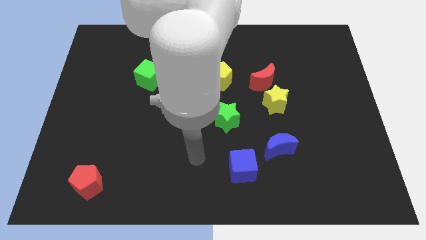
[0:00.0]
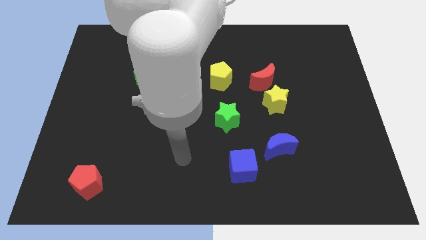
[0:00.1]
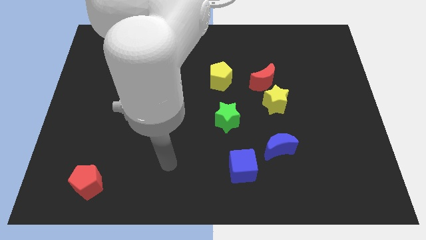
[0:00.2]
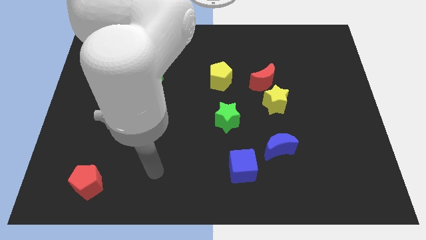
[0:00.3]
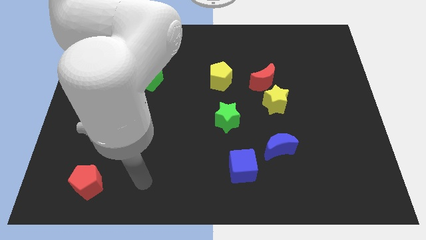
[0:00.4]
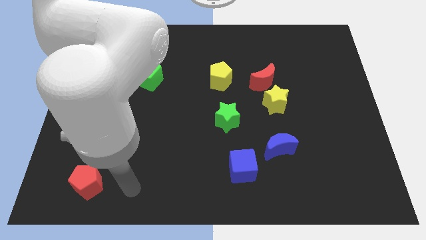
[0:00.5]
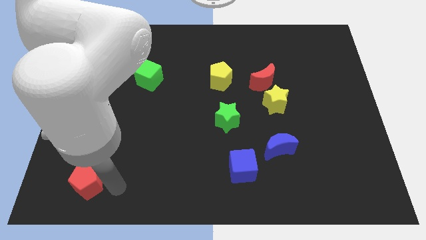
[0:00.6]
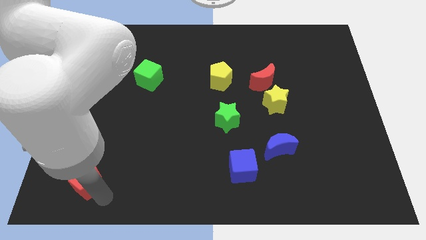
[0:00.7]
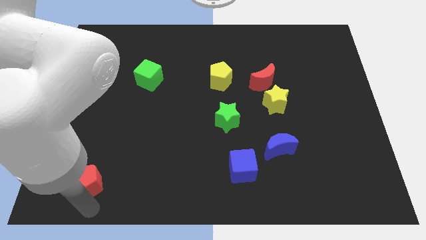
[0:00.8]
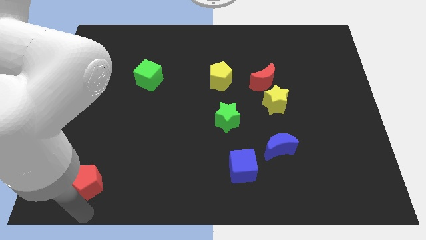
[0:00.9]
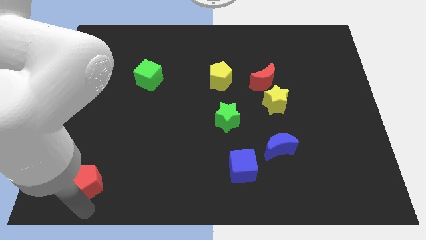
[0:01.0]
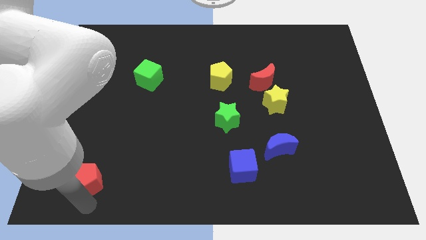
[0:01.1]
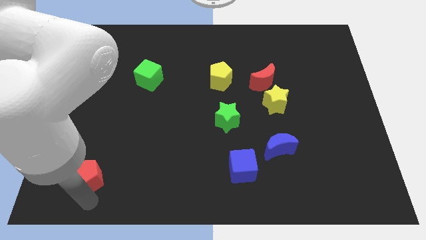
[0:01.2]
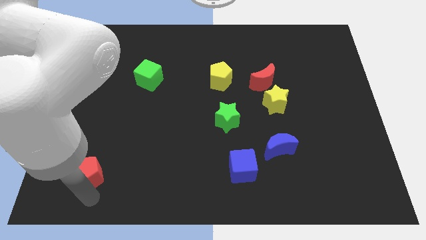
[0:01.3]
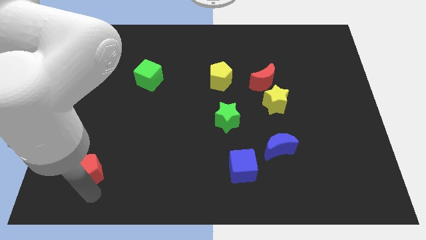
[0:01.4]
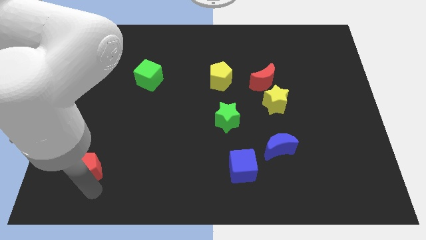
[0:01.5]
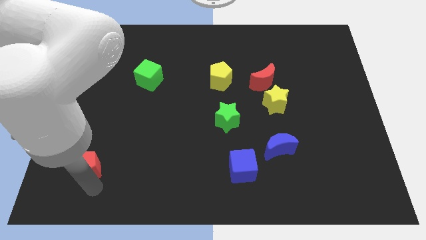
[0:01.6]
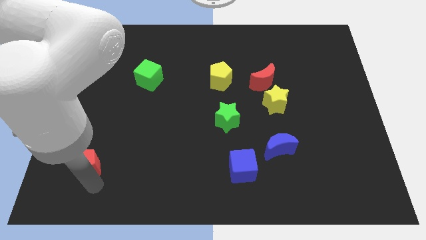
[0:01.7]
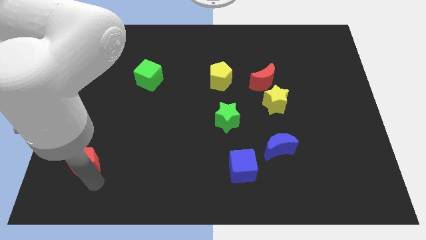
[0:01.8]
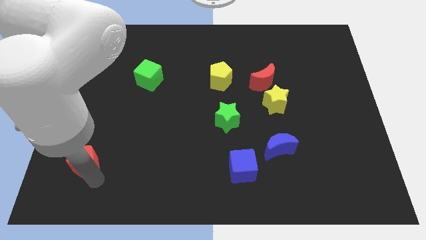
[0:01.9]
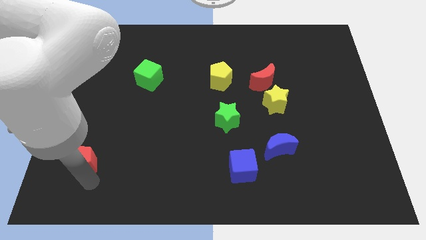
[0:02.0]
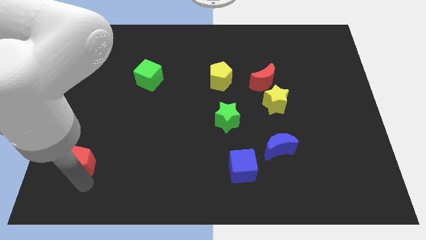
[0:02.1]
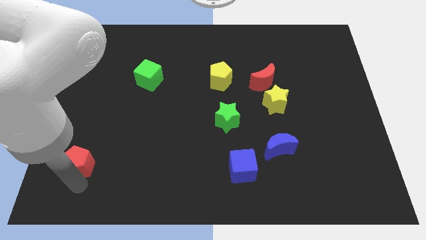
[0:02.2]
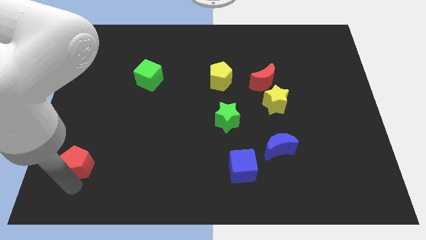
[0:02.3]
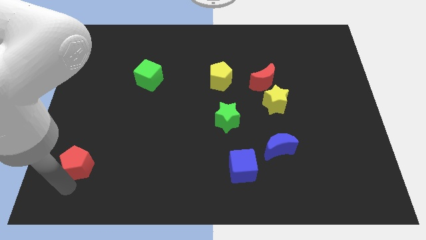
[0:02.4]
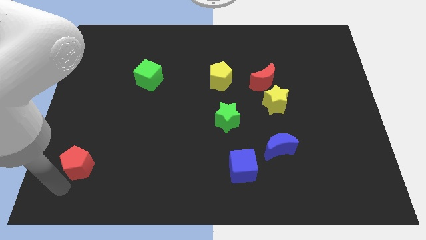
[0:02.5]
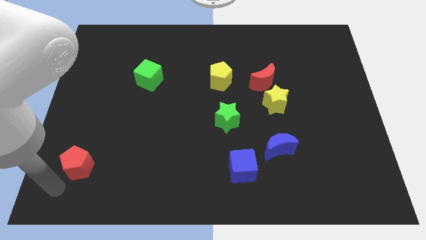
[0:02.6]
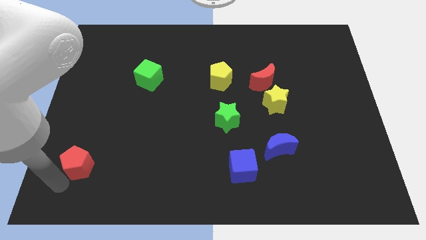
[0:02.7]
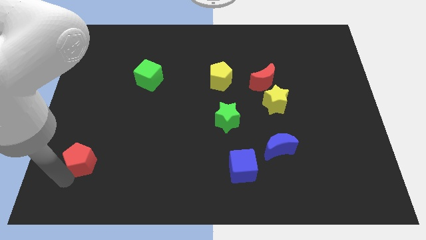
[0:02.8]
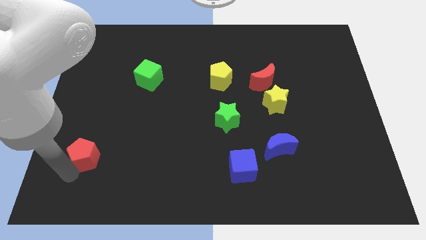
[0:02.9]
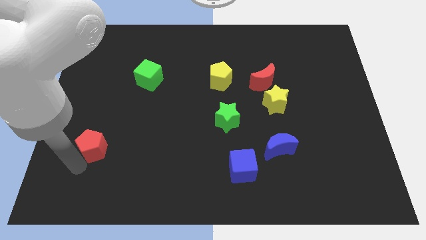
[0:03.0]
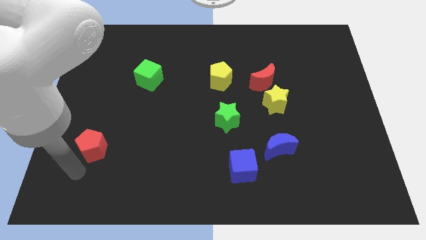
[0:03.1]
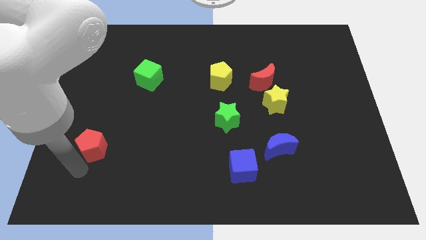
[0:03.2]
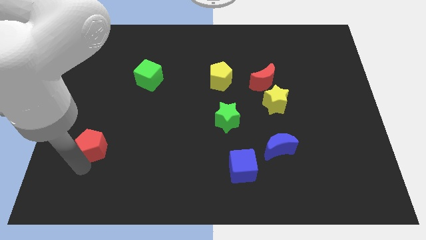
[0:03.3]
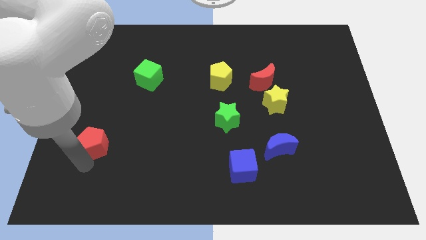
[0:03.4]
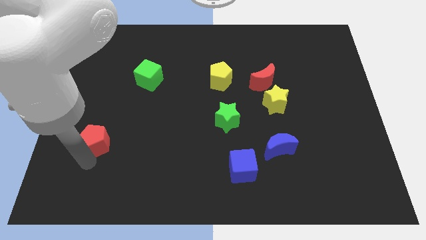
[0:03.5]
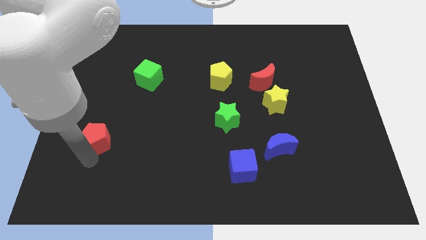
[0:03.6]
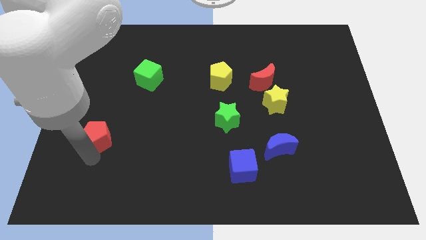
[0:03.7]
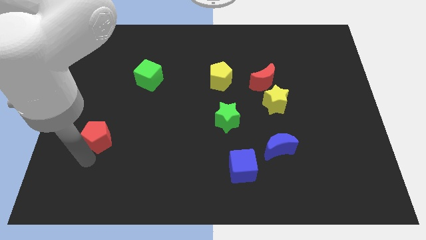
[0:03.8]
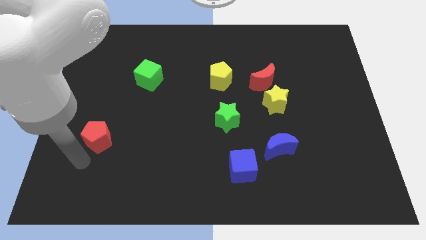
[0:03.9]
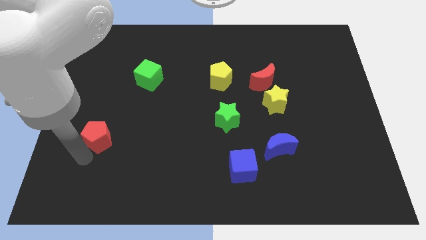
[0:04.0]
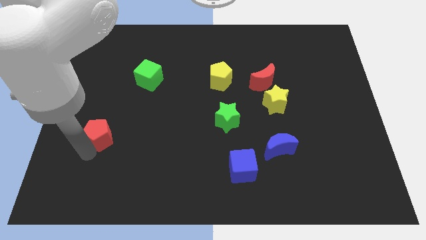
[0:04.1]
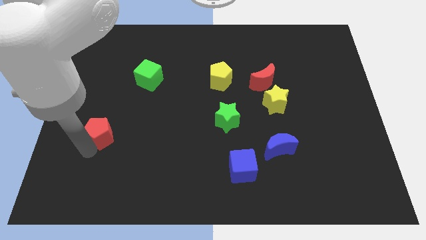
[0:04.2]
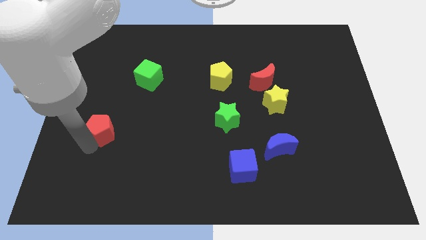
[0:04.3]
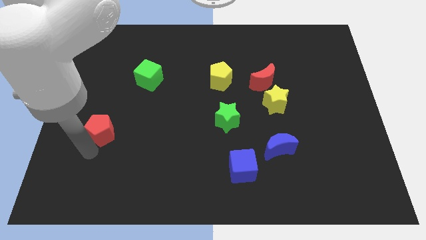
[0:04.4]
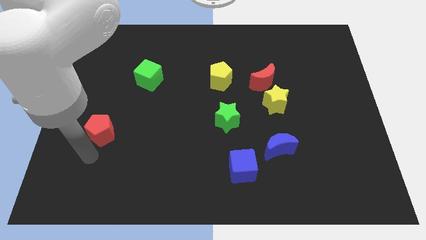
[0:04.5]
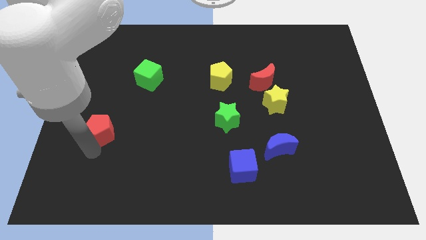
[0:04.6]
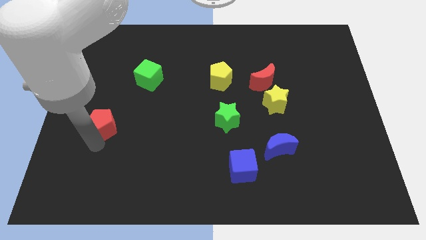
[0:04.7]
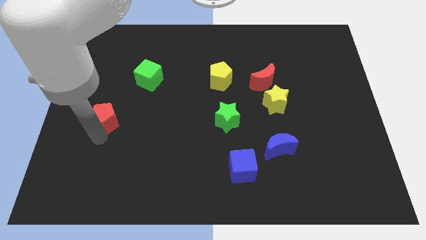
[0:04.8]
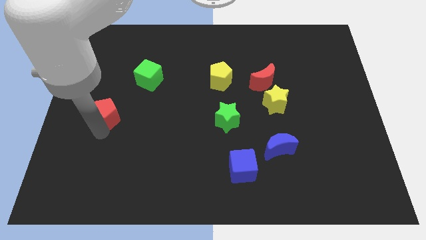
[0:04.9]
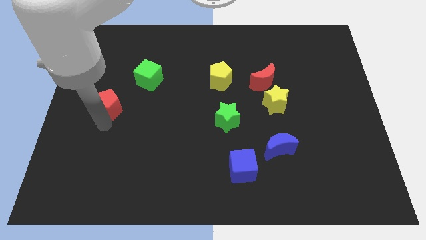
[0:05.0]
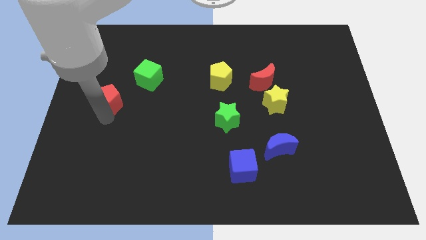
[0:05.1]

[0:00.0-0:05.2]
move the red pentagon up

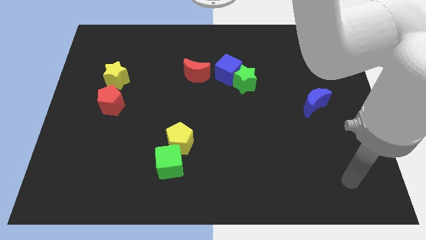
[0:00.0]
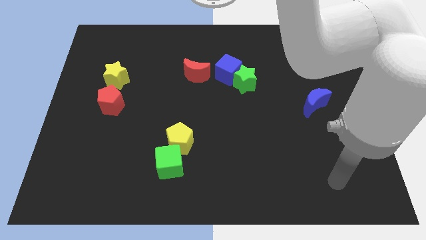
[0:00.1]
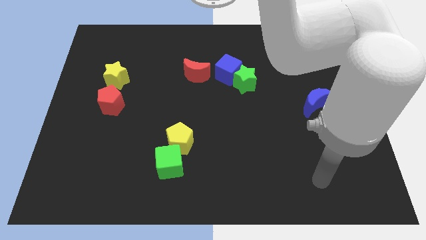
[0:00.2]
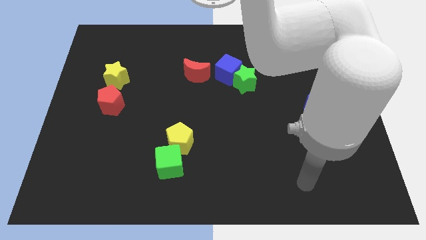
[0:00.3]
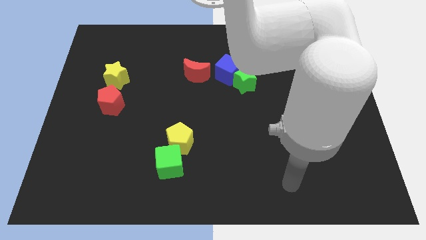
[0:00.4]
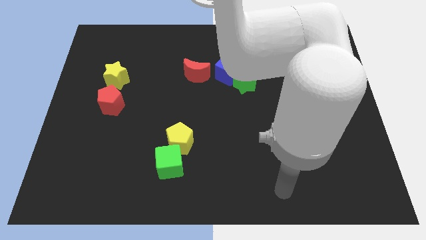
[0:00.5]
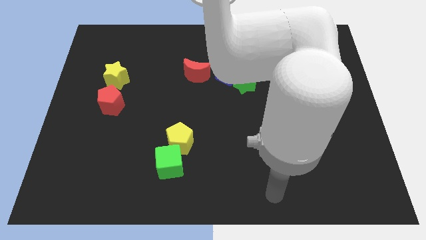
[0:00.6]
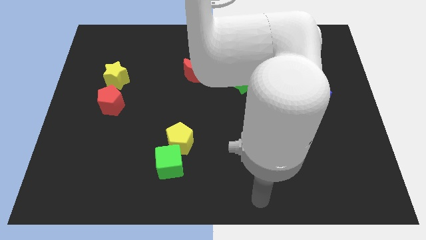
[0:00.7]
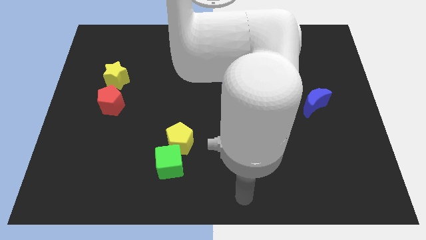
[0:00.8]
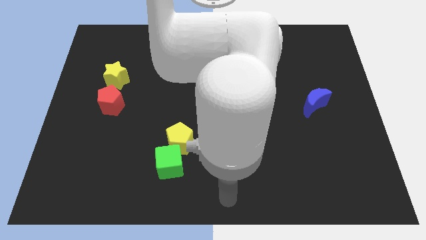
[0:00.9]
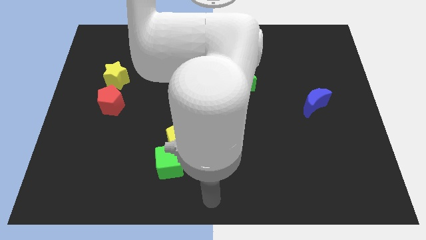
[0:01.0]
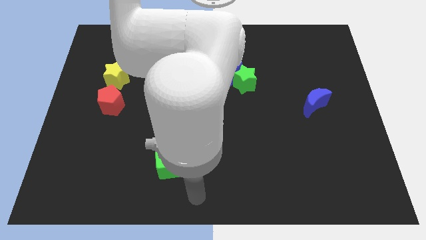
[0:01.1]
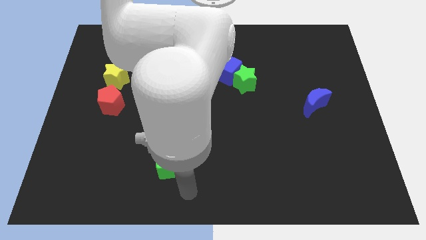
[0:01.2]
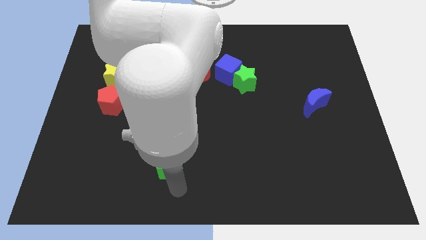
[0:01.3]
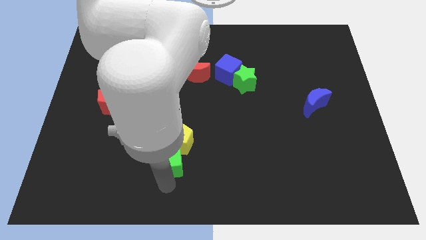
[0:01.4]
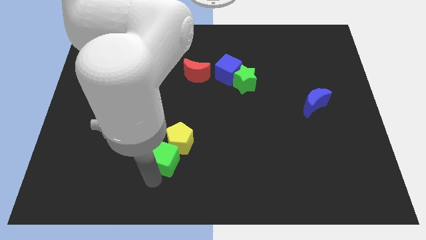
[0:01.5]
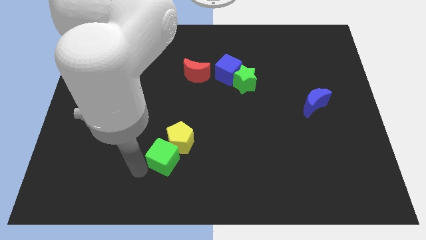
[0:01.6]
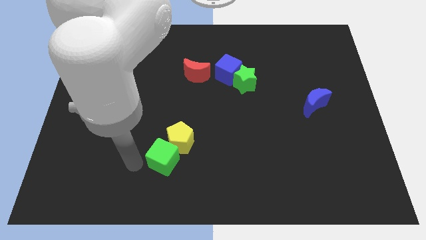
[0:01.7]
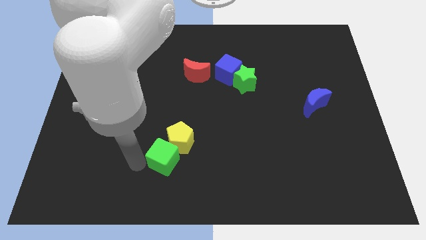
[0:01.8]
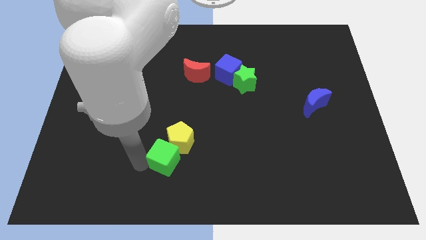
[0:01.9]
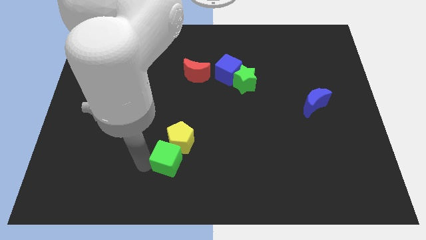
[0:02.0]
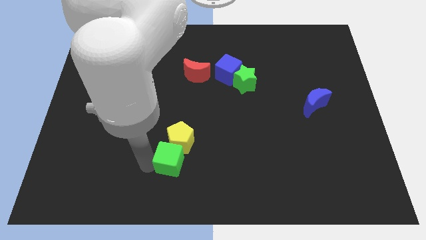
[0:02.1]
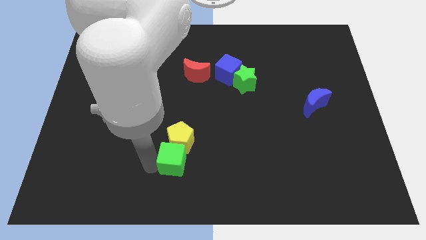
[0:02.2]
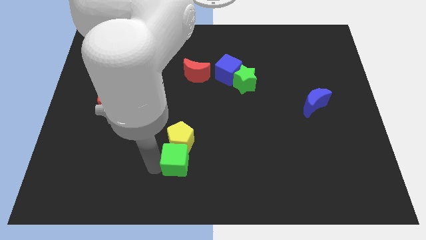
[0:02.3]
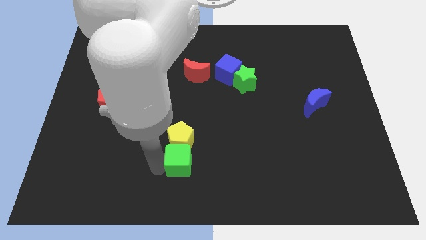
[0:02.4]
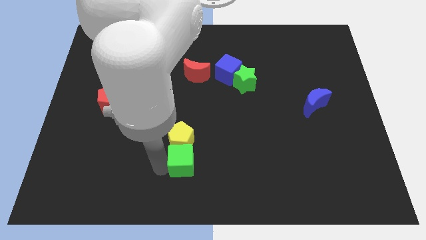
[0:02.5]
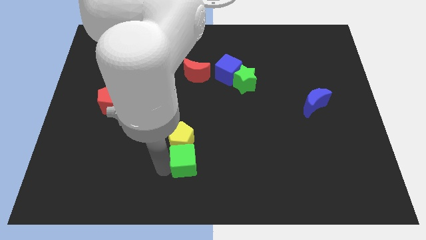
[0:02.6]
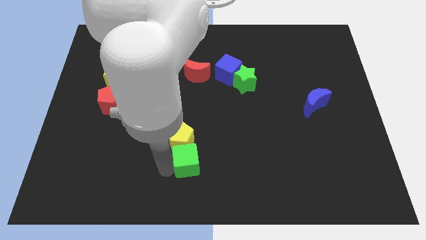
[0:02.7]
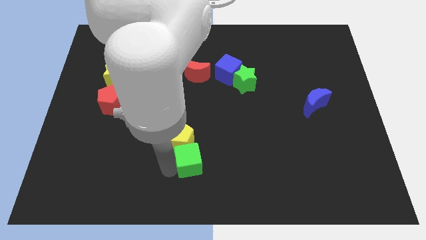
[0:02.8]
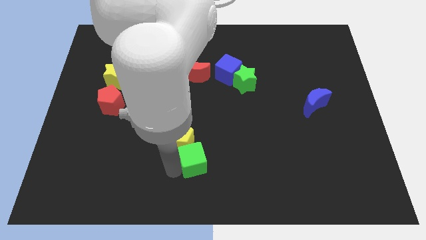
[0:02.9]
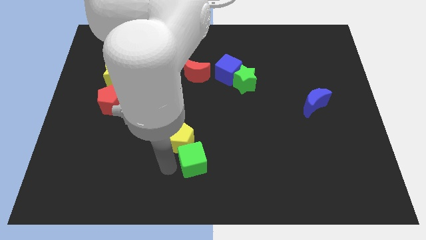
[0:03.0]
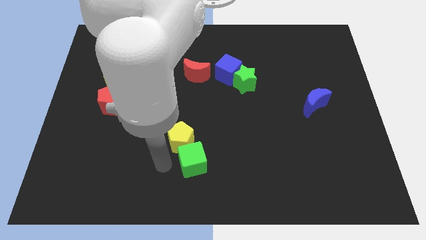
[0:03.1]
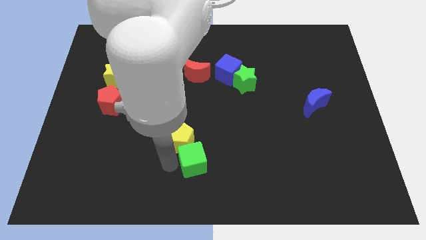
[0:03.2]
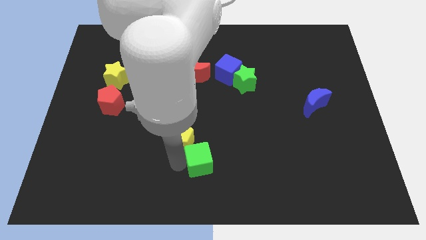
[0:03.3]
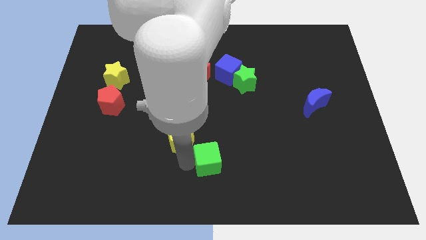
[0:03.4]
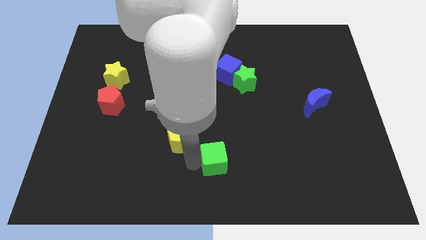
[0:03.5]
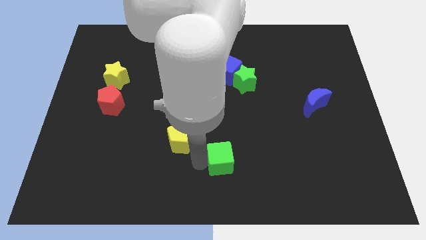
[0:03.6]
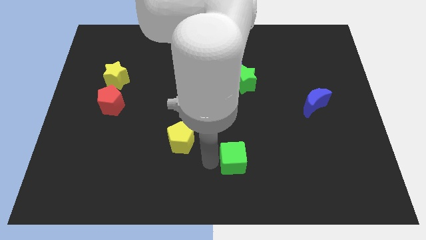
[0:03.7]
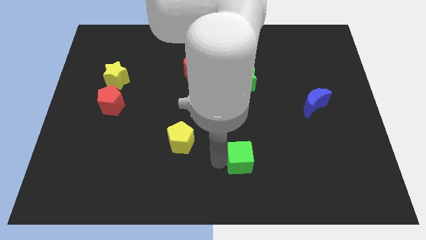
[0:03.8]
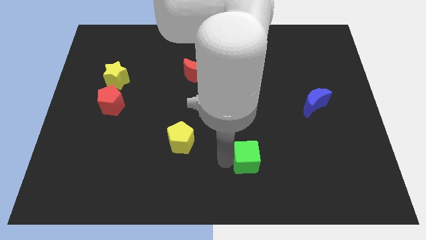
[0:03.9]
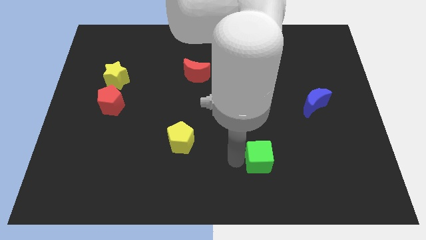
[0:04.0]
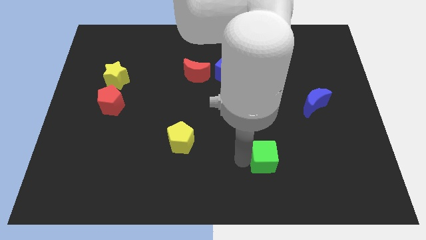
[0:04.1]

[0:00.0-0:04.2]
slide the green cube right
